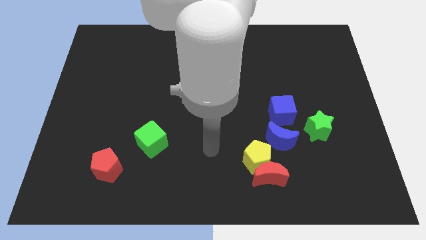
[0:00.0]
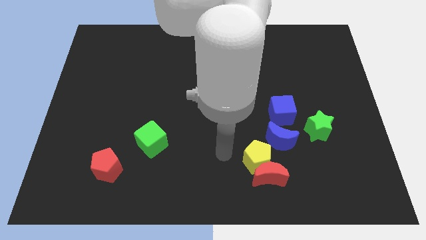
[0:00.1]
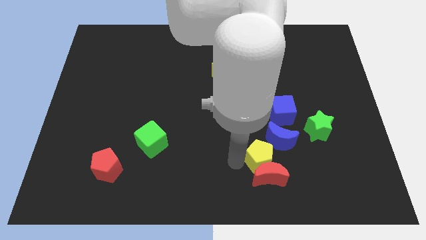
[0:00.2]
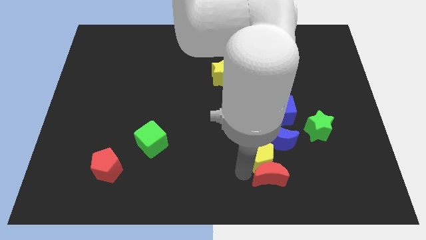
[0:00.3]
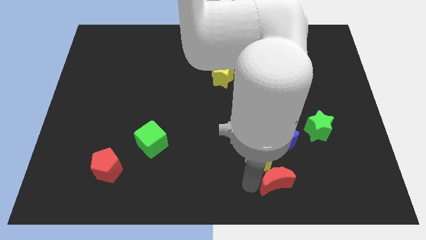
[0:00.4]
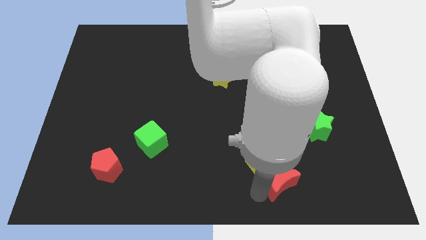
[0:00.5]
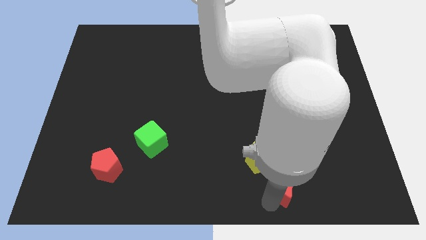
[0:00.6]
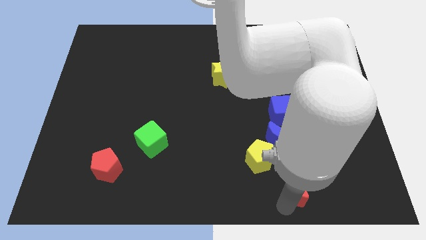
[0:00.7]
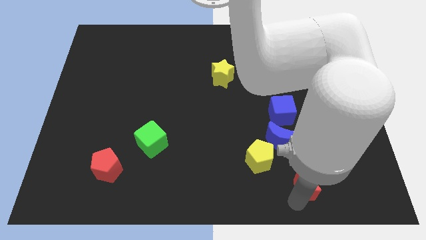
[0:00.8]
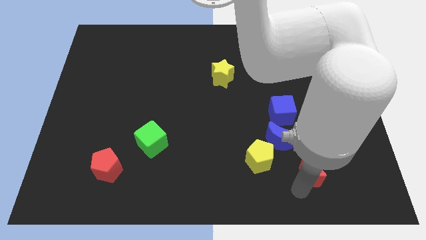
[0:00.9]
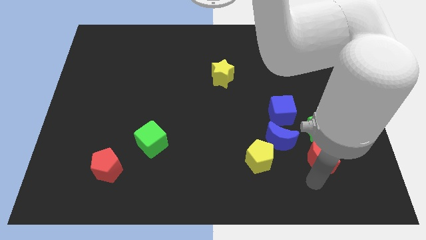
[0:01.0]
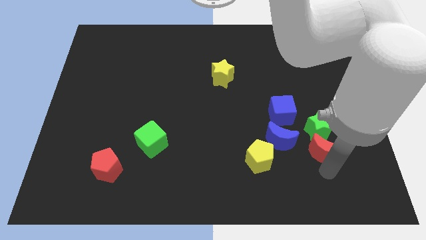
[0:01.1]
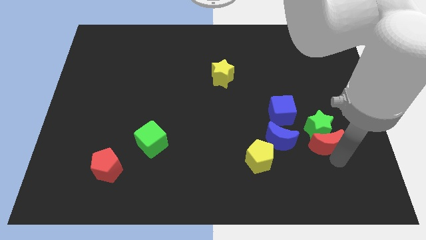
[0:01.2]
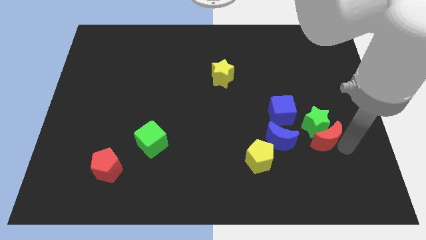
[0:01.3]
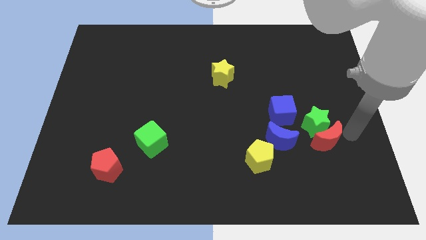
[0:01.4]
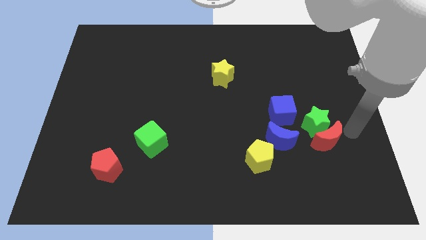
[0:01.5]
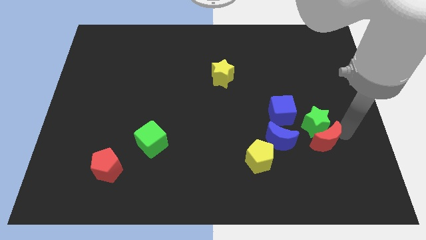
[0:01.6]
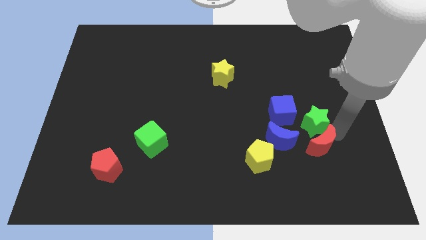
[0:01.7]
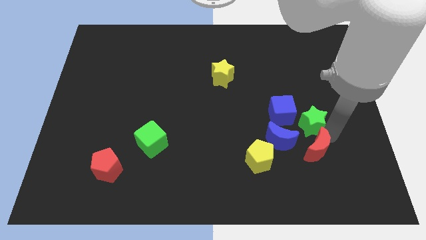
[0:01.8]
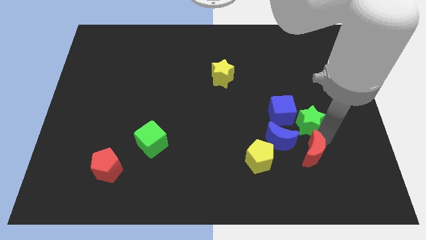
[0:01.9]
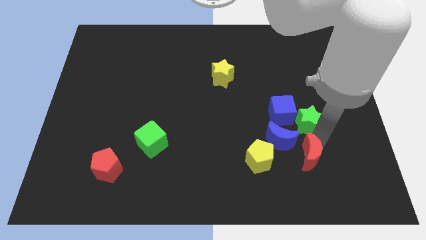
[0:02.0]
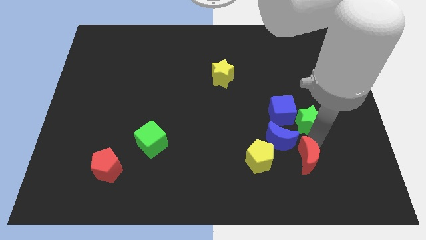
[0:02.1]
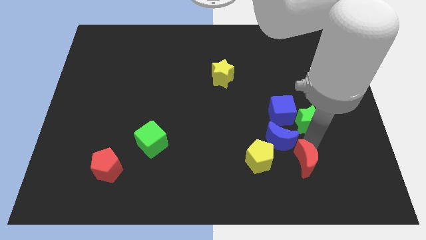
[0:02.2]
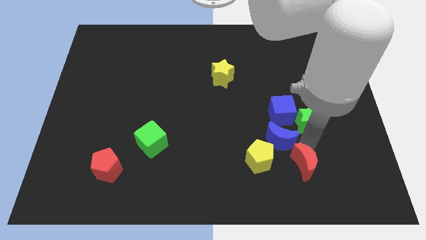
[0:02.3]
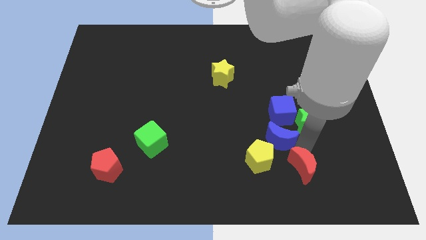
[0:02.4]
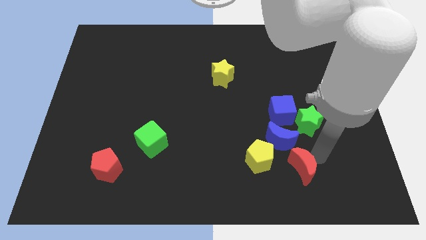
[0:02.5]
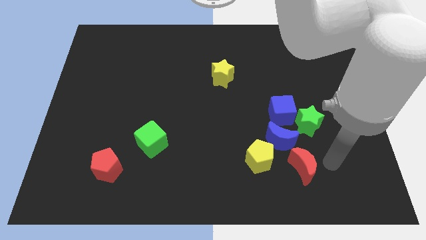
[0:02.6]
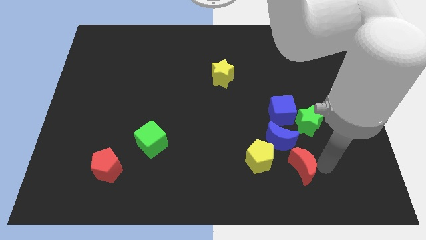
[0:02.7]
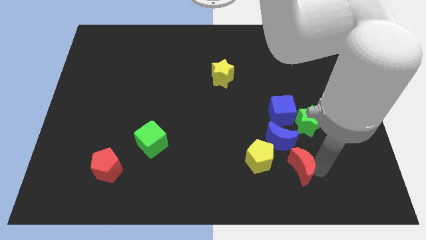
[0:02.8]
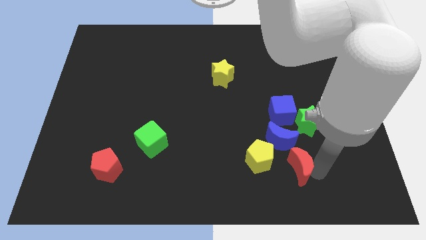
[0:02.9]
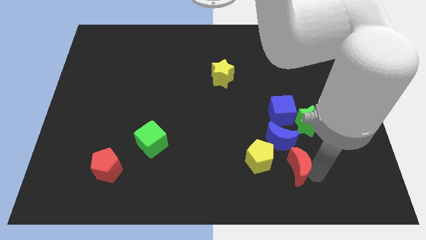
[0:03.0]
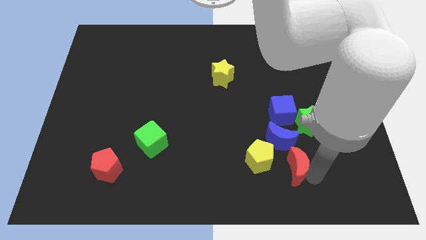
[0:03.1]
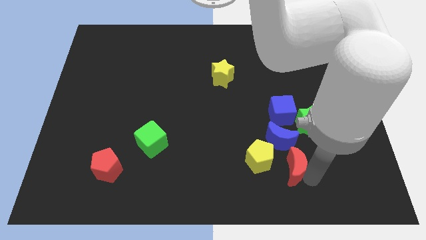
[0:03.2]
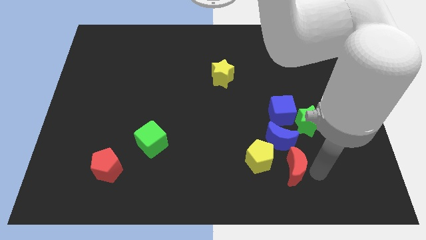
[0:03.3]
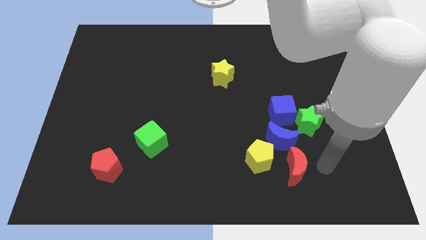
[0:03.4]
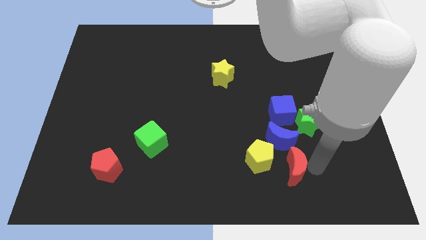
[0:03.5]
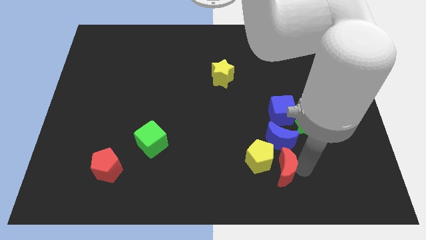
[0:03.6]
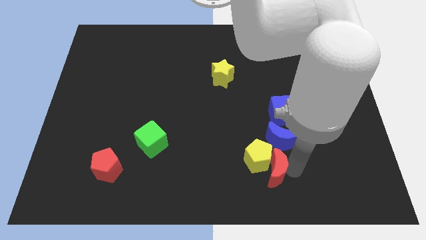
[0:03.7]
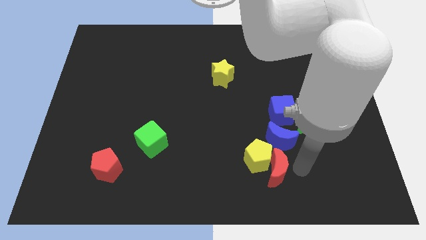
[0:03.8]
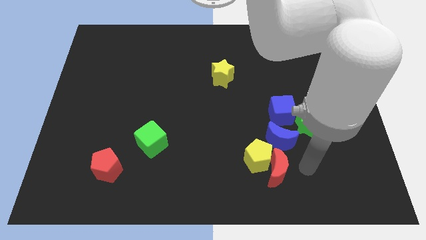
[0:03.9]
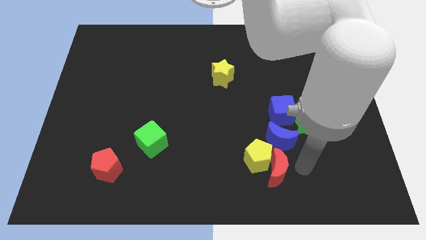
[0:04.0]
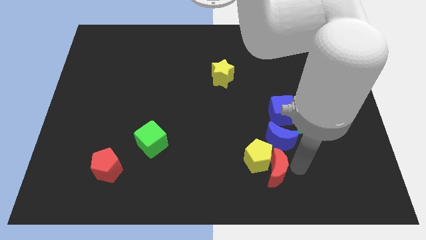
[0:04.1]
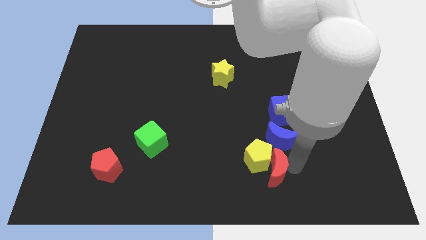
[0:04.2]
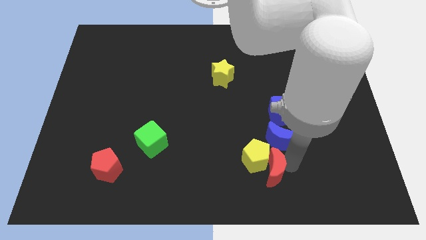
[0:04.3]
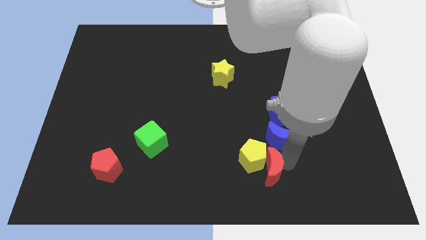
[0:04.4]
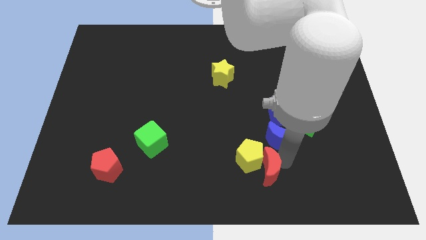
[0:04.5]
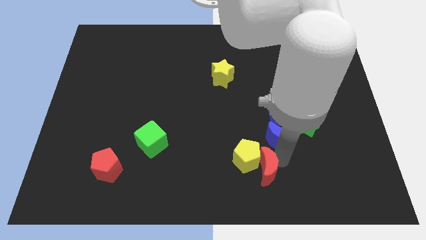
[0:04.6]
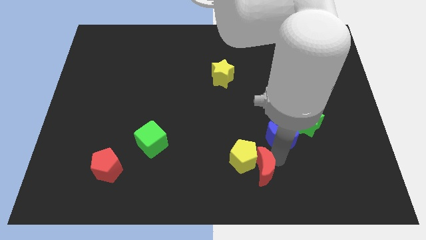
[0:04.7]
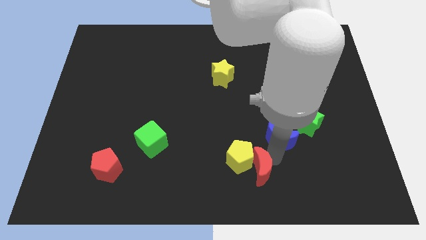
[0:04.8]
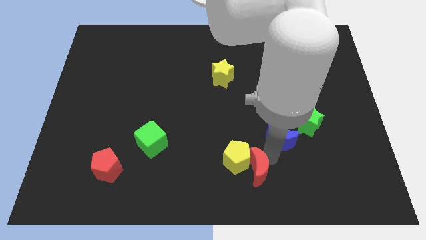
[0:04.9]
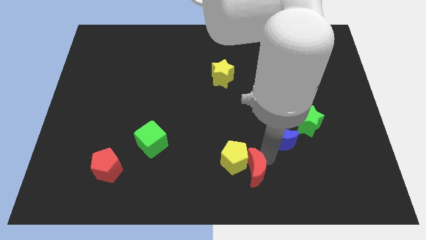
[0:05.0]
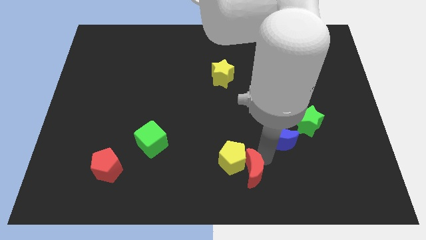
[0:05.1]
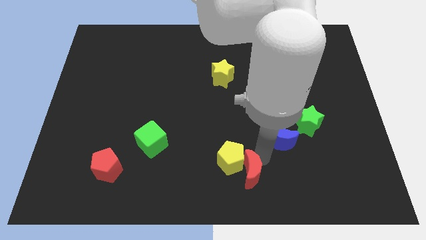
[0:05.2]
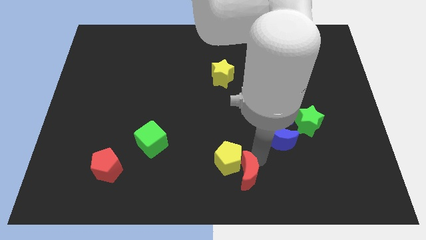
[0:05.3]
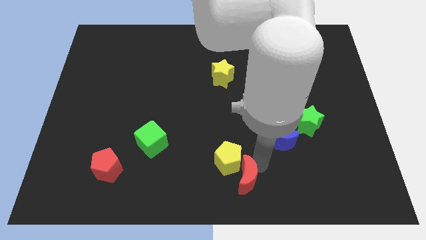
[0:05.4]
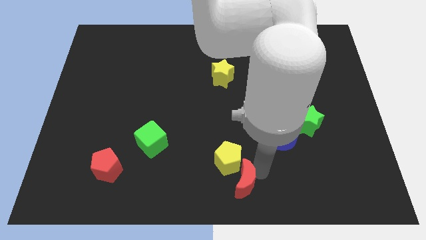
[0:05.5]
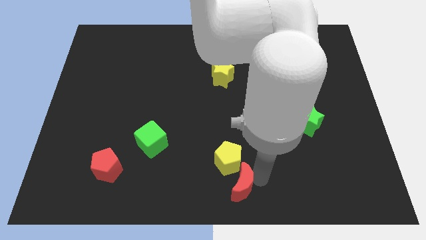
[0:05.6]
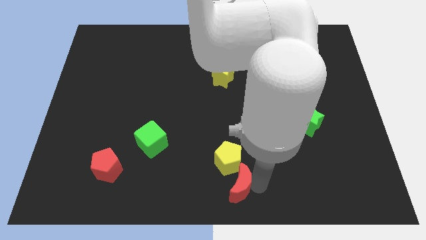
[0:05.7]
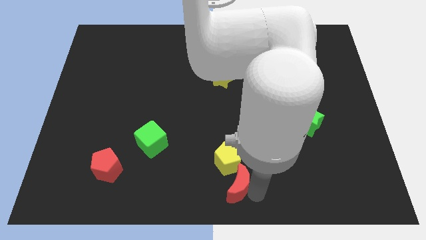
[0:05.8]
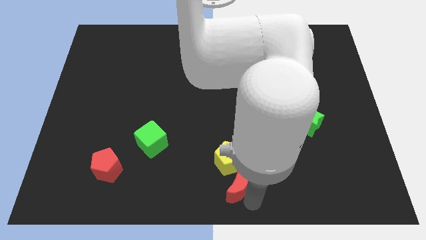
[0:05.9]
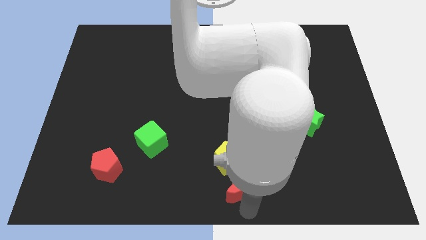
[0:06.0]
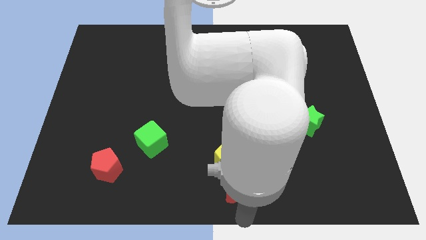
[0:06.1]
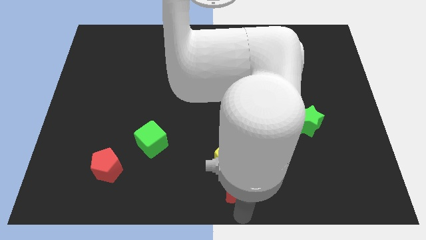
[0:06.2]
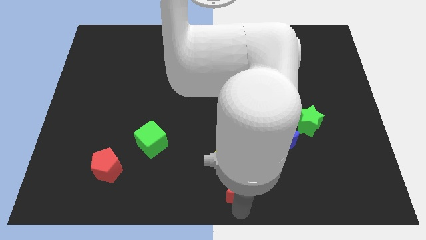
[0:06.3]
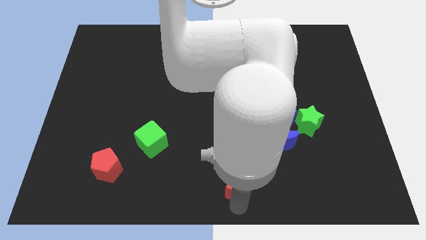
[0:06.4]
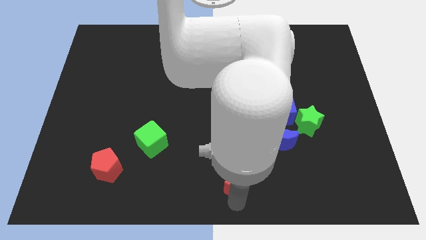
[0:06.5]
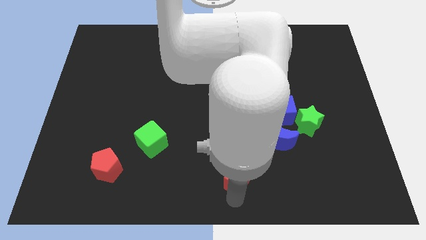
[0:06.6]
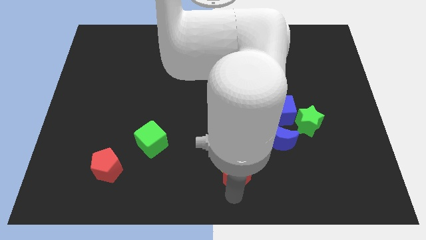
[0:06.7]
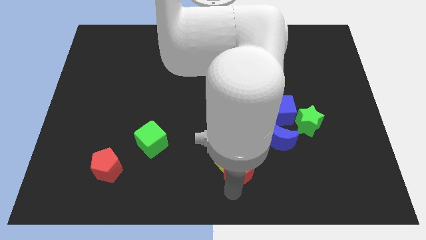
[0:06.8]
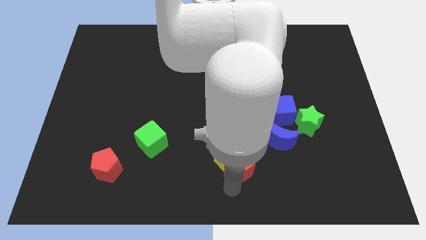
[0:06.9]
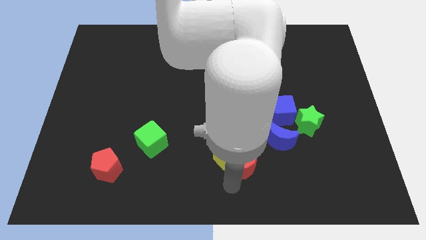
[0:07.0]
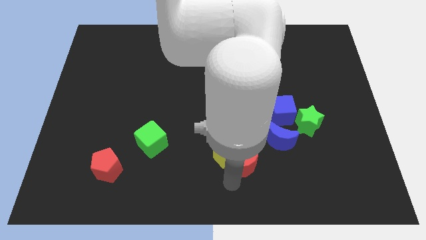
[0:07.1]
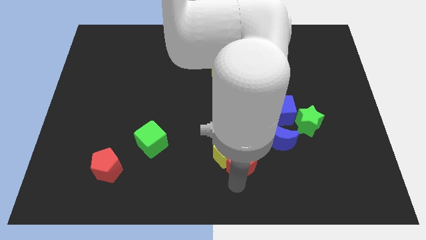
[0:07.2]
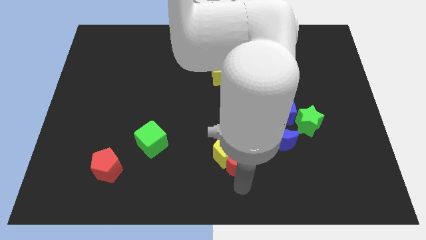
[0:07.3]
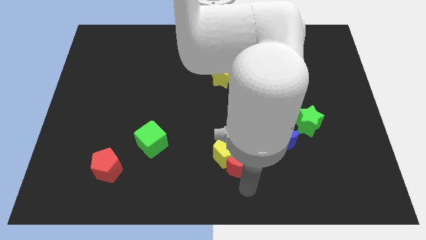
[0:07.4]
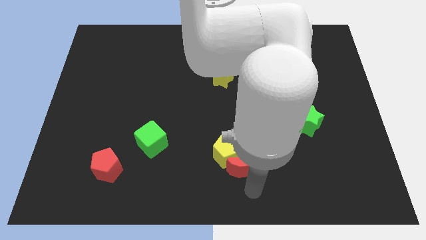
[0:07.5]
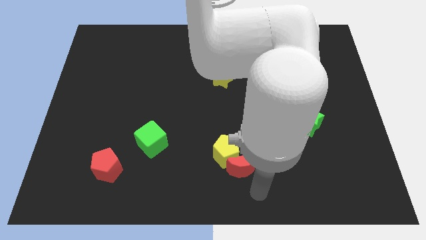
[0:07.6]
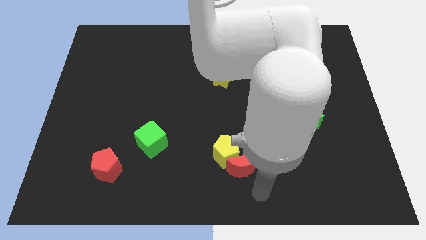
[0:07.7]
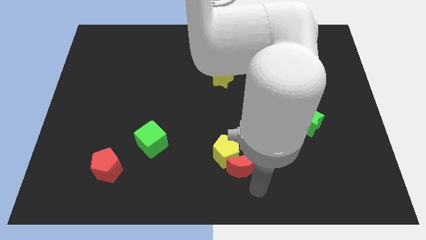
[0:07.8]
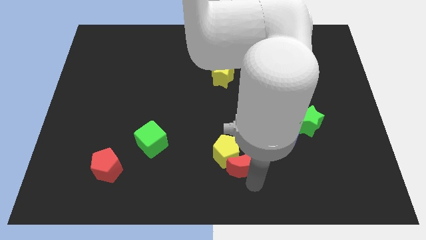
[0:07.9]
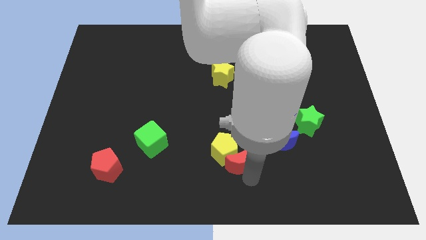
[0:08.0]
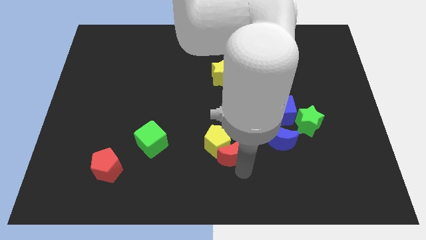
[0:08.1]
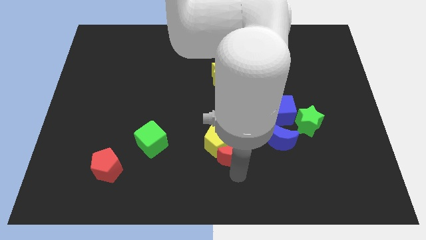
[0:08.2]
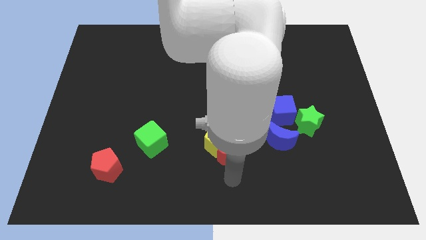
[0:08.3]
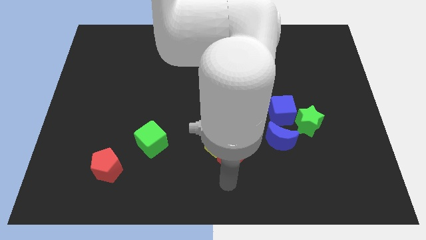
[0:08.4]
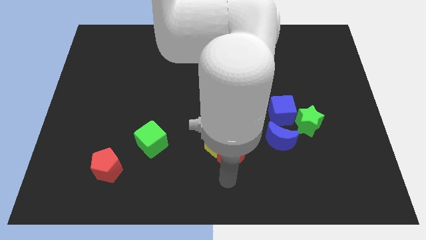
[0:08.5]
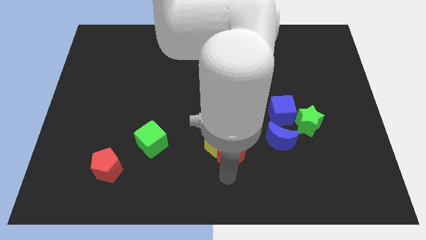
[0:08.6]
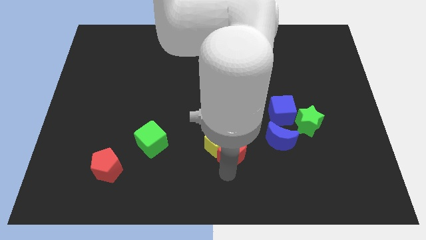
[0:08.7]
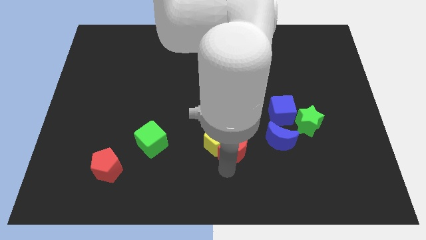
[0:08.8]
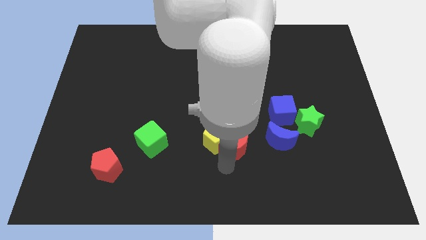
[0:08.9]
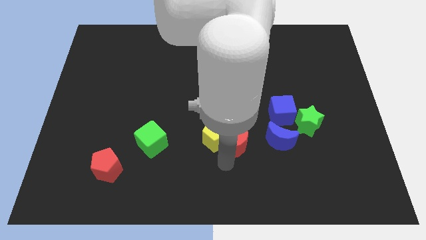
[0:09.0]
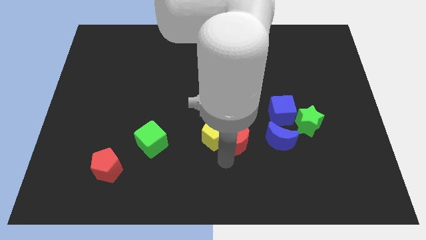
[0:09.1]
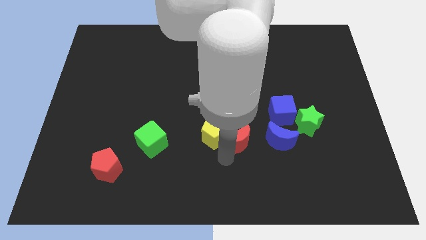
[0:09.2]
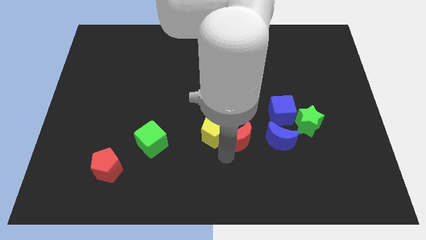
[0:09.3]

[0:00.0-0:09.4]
slightly push the red moon up
